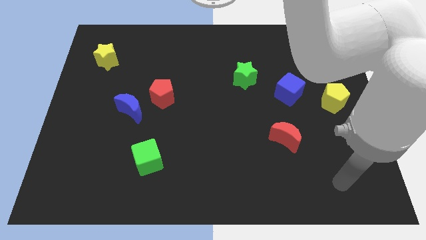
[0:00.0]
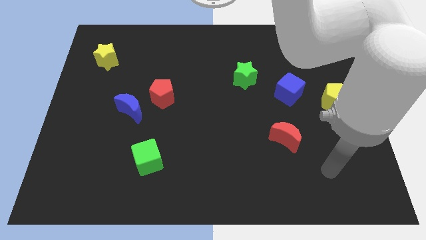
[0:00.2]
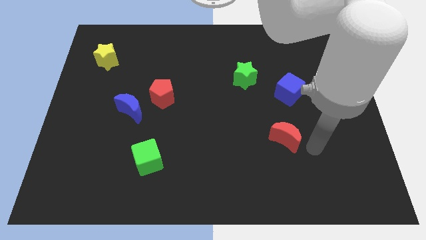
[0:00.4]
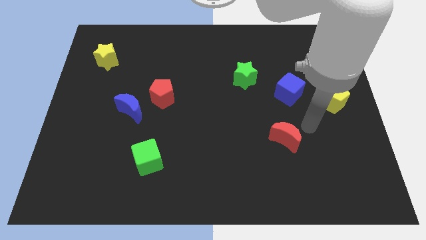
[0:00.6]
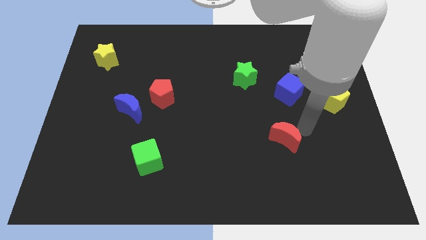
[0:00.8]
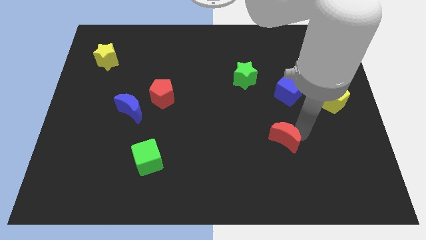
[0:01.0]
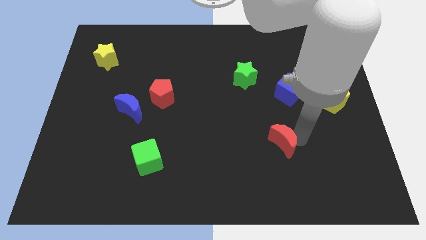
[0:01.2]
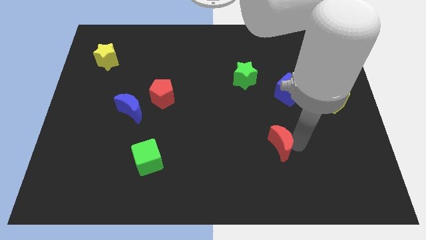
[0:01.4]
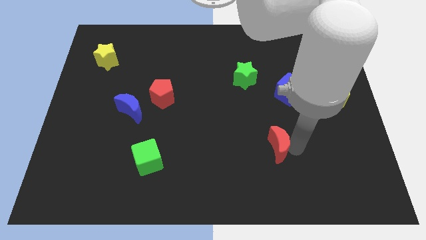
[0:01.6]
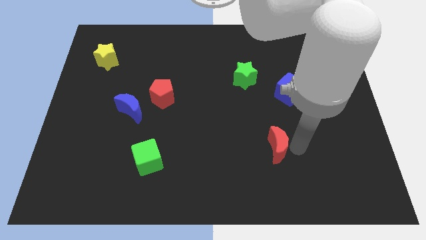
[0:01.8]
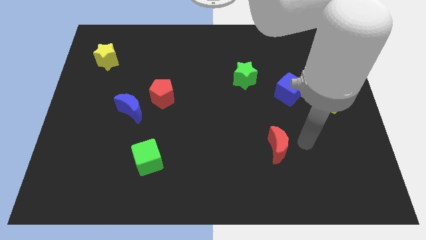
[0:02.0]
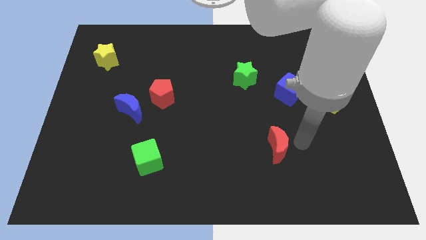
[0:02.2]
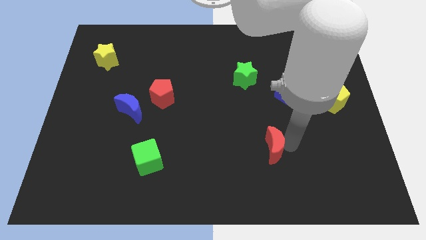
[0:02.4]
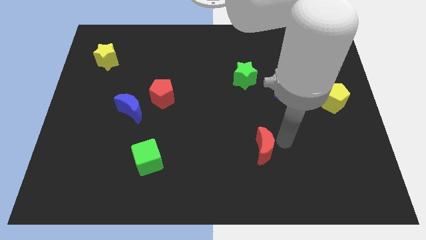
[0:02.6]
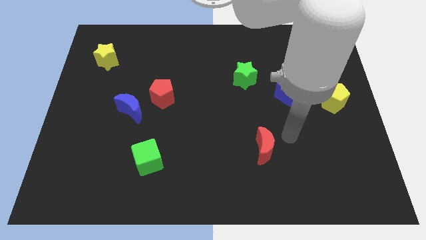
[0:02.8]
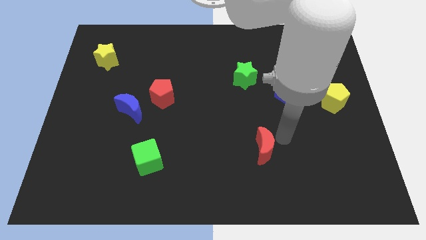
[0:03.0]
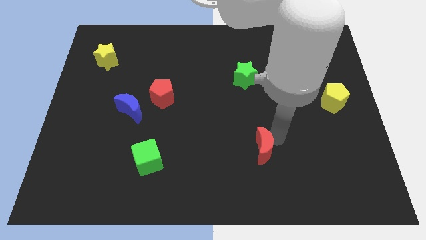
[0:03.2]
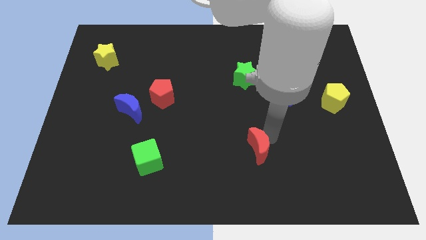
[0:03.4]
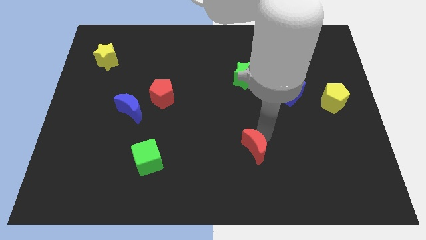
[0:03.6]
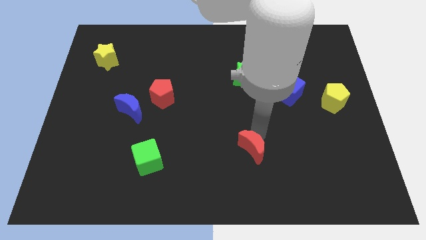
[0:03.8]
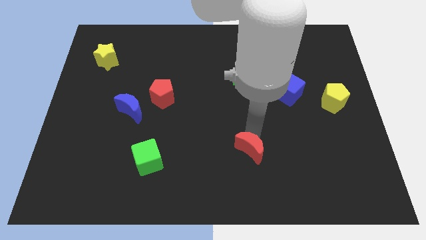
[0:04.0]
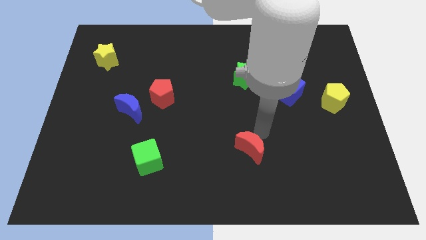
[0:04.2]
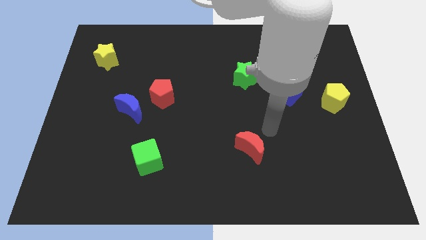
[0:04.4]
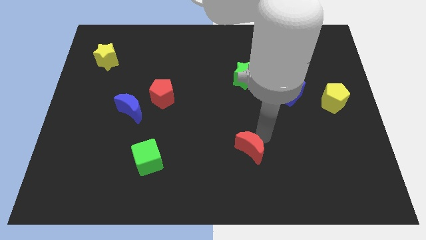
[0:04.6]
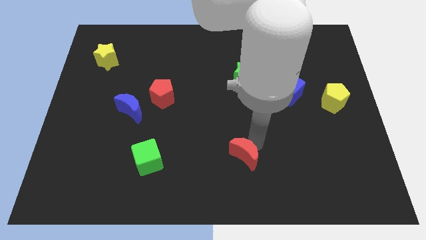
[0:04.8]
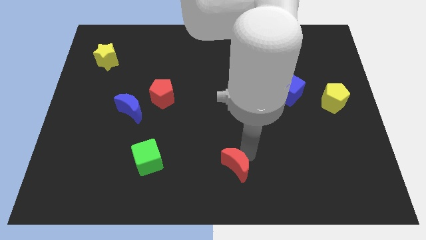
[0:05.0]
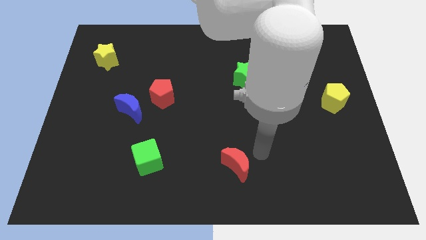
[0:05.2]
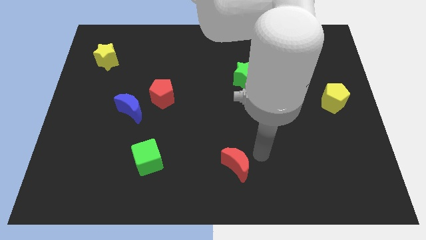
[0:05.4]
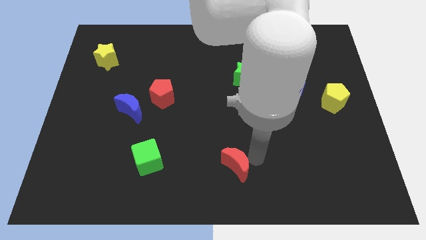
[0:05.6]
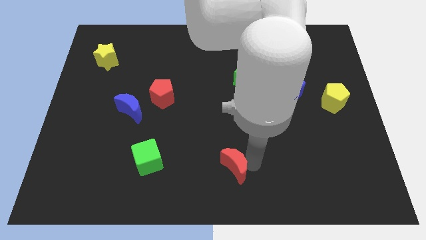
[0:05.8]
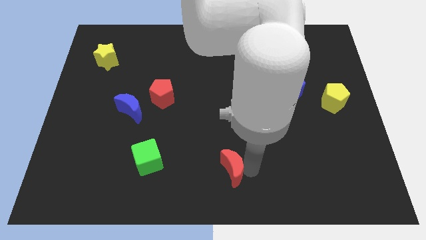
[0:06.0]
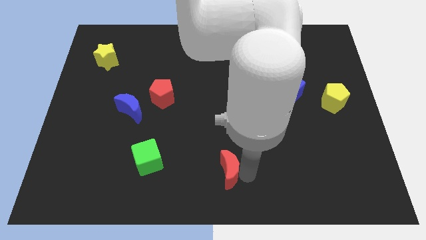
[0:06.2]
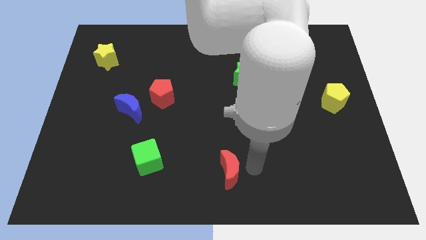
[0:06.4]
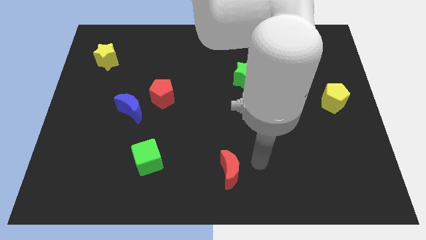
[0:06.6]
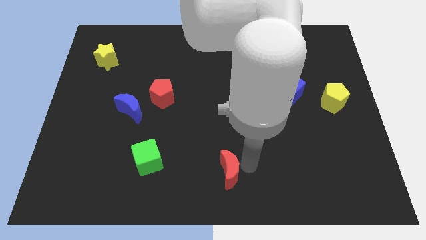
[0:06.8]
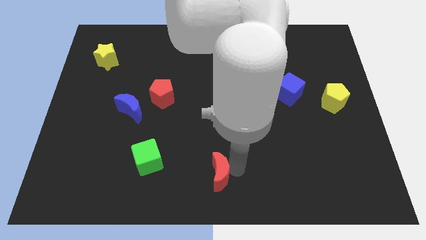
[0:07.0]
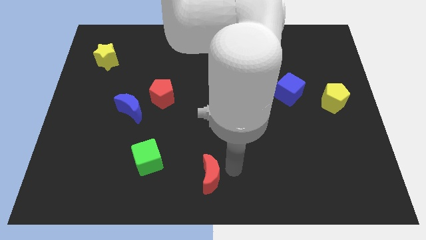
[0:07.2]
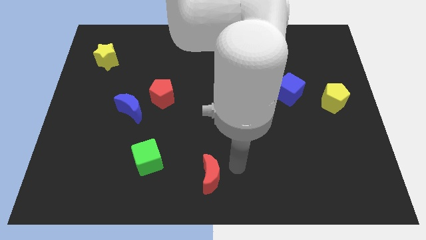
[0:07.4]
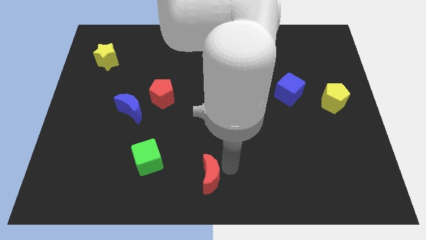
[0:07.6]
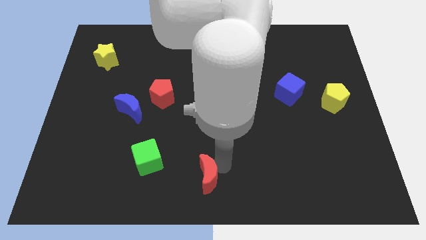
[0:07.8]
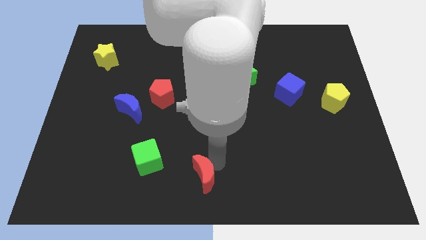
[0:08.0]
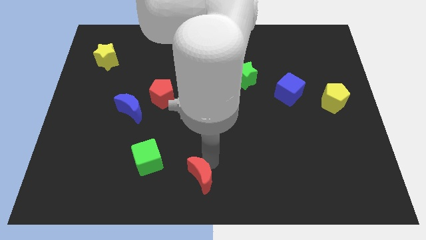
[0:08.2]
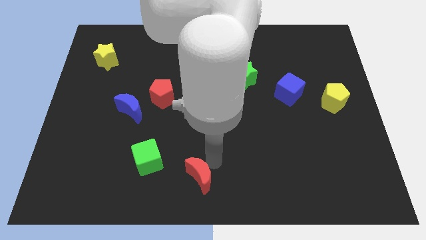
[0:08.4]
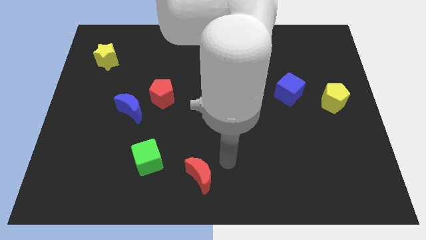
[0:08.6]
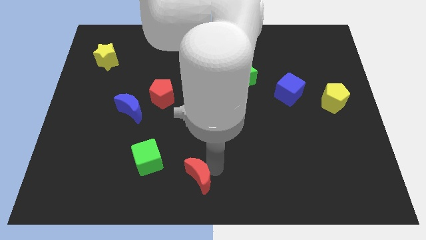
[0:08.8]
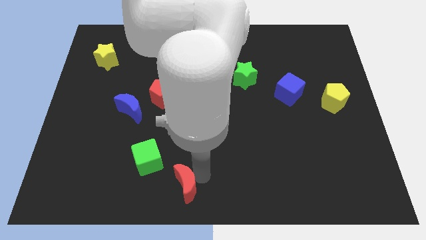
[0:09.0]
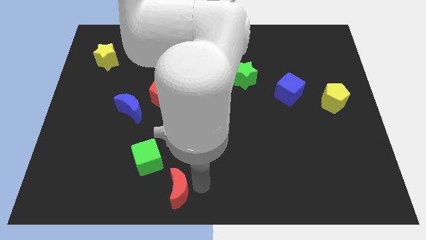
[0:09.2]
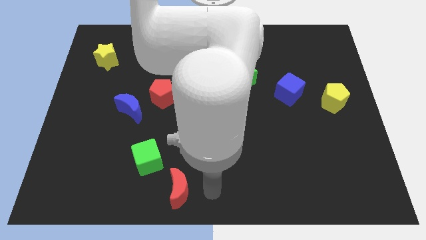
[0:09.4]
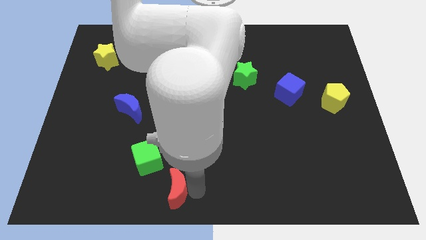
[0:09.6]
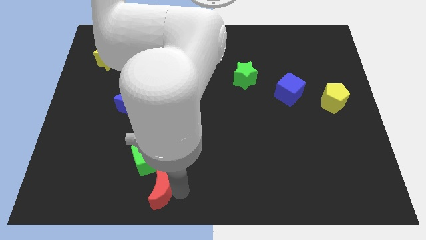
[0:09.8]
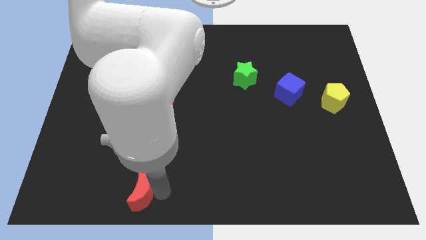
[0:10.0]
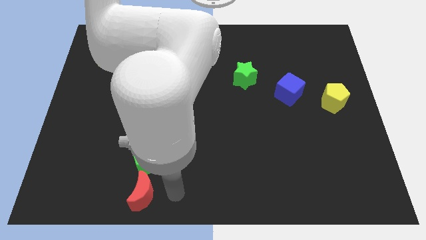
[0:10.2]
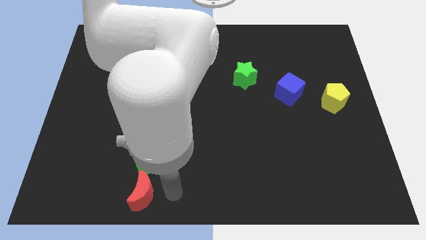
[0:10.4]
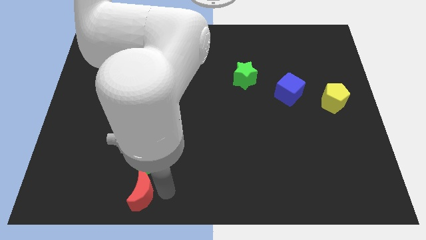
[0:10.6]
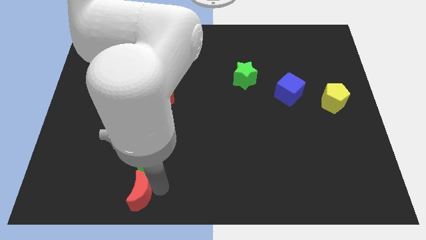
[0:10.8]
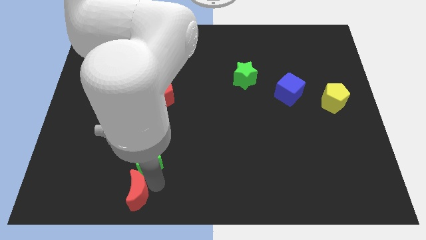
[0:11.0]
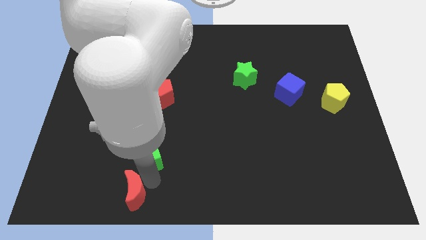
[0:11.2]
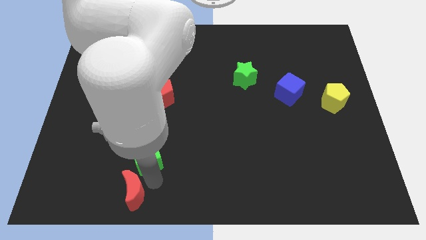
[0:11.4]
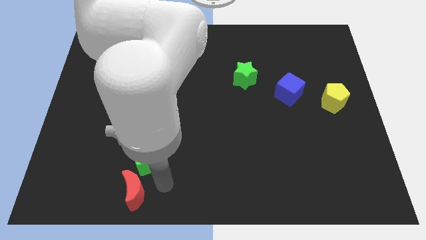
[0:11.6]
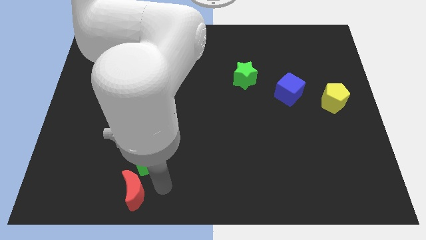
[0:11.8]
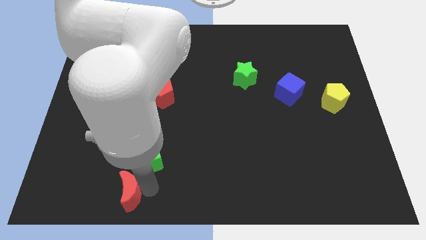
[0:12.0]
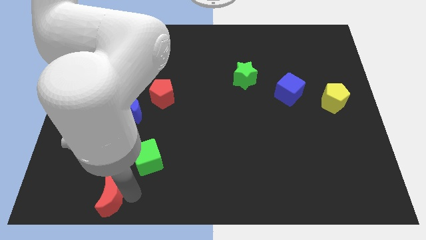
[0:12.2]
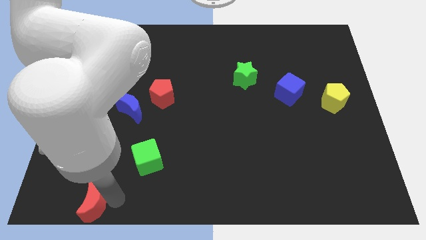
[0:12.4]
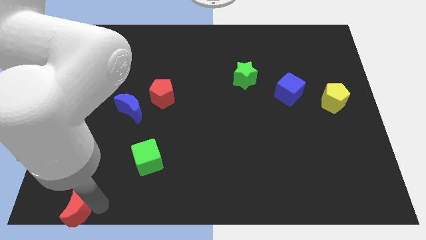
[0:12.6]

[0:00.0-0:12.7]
slide the red moon to the lower left corner
